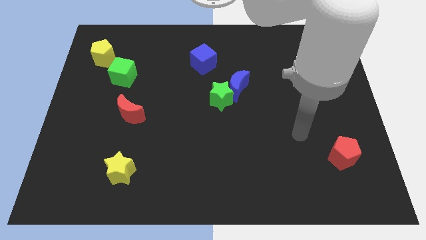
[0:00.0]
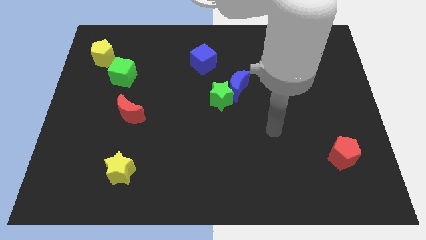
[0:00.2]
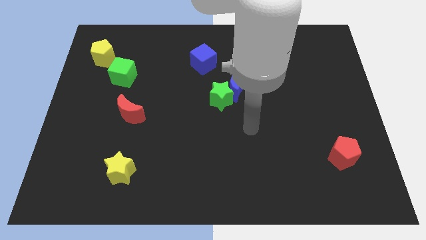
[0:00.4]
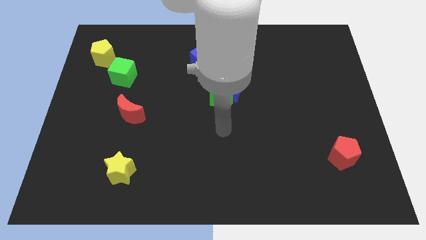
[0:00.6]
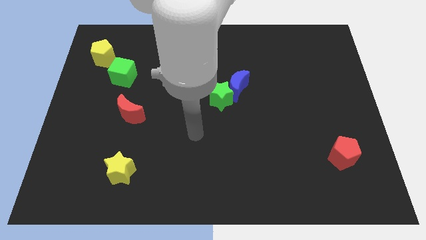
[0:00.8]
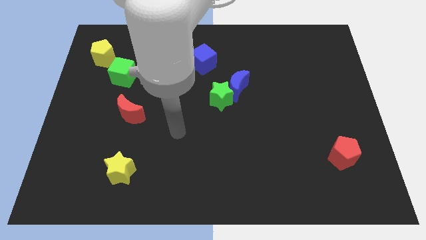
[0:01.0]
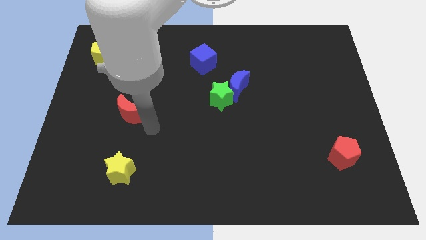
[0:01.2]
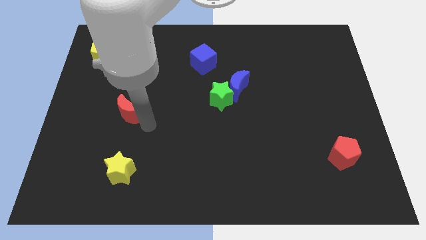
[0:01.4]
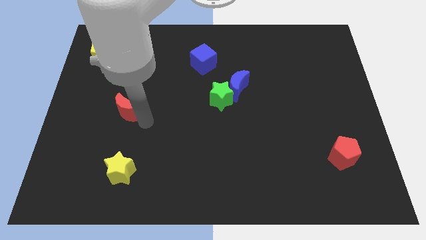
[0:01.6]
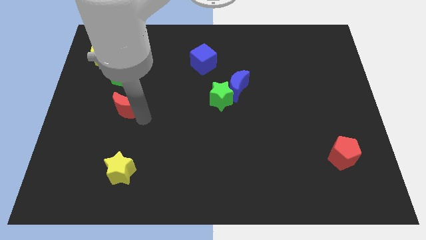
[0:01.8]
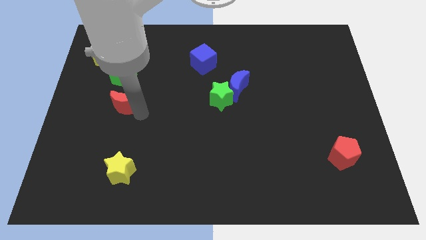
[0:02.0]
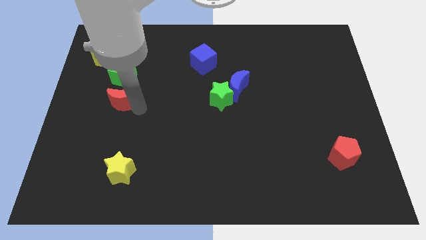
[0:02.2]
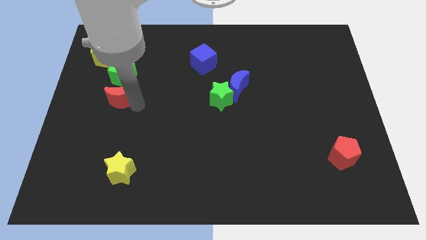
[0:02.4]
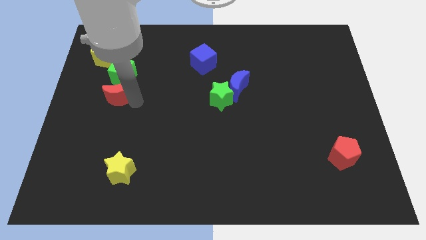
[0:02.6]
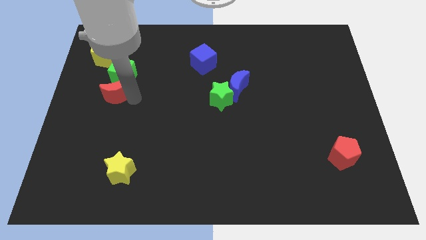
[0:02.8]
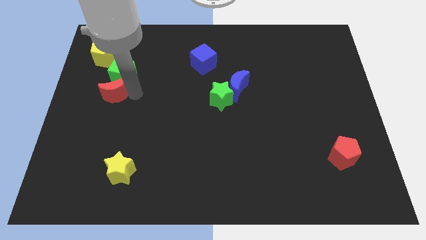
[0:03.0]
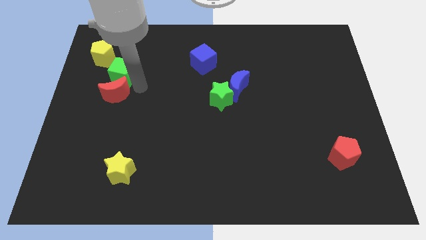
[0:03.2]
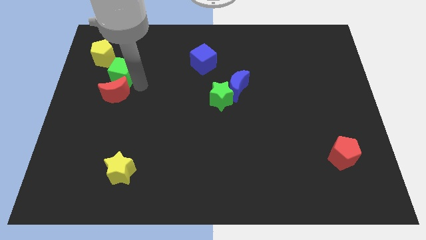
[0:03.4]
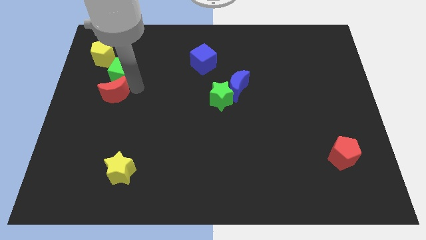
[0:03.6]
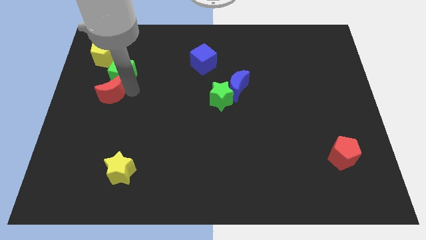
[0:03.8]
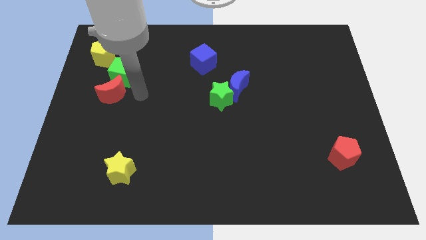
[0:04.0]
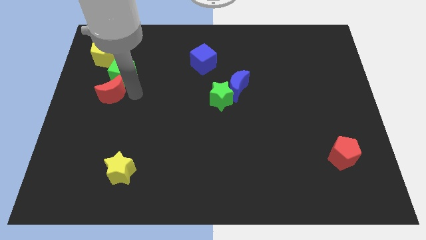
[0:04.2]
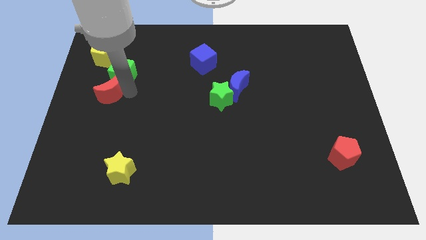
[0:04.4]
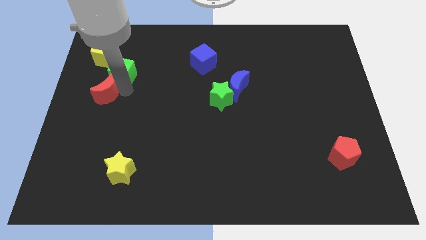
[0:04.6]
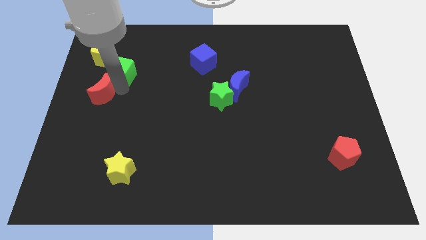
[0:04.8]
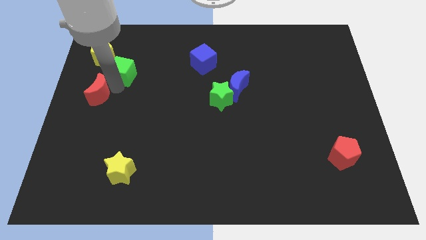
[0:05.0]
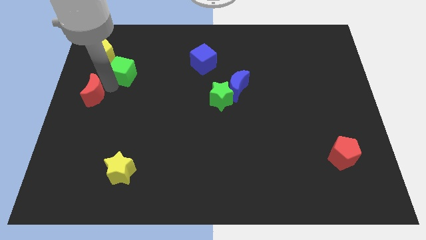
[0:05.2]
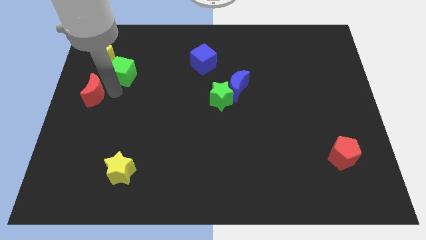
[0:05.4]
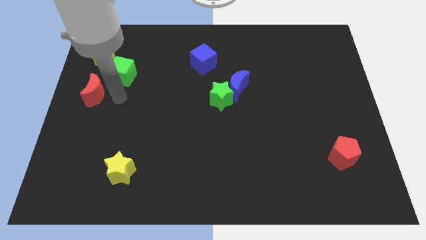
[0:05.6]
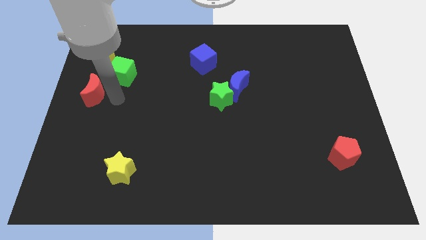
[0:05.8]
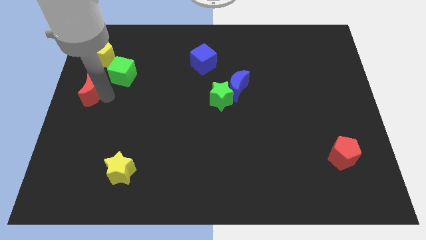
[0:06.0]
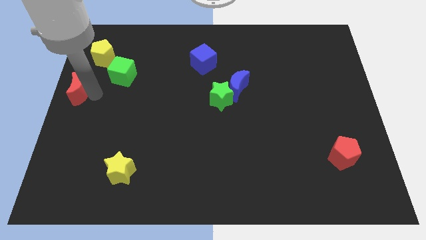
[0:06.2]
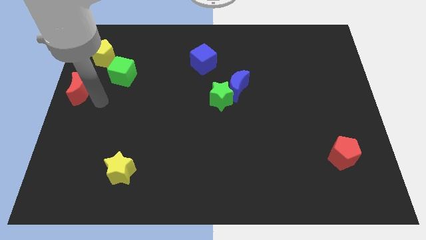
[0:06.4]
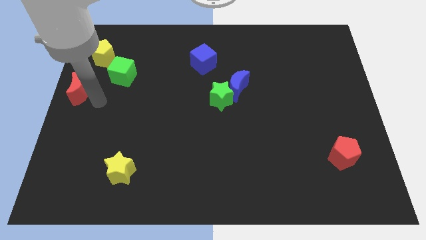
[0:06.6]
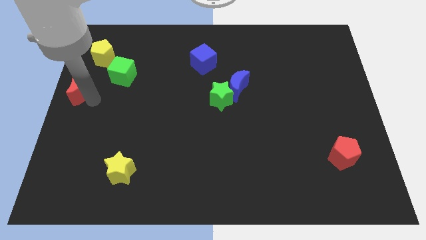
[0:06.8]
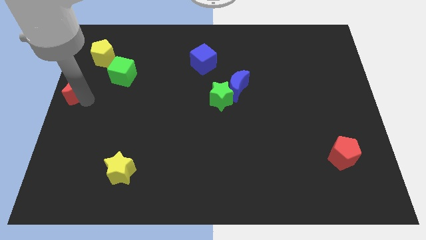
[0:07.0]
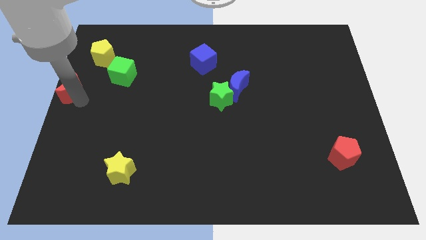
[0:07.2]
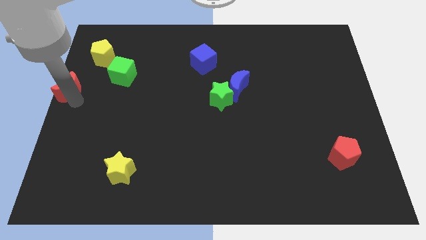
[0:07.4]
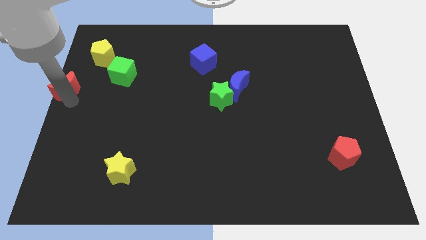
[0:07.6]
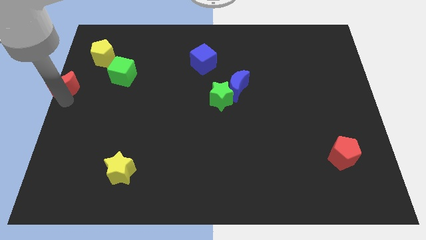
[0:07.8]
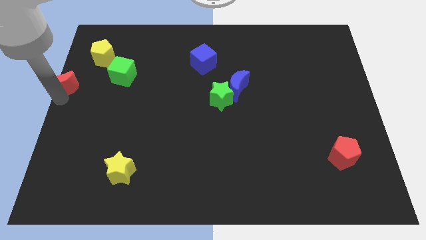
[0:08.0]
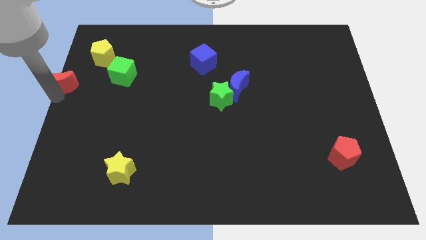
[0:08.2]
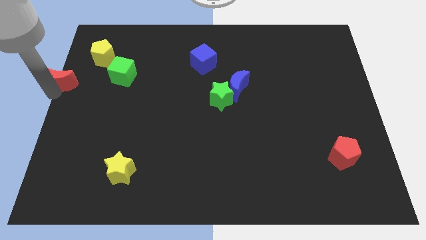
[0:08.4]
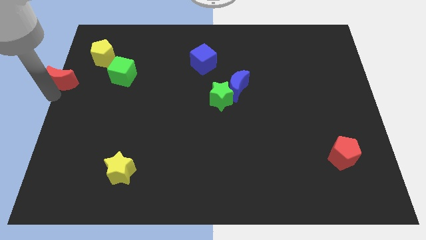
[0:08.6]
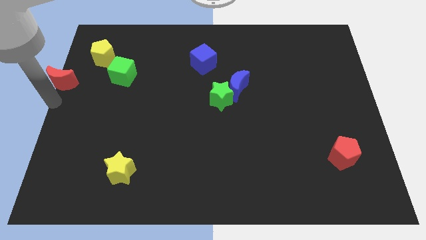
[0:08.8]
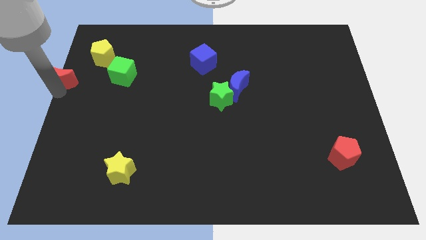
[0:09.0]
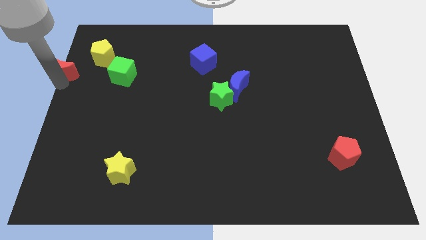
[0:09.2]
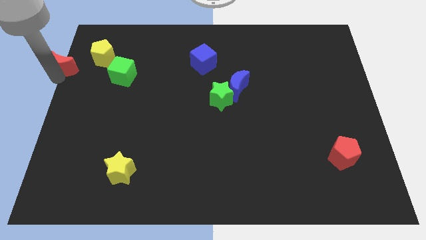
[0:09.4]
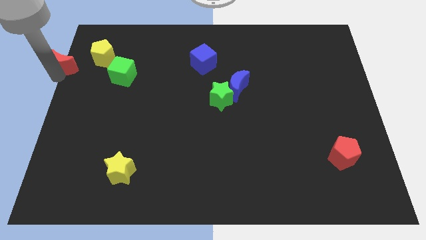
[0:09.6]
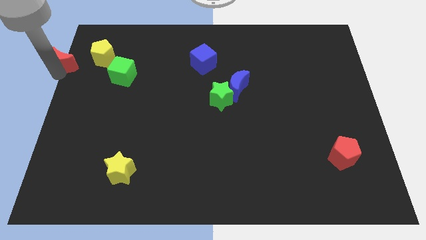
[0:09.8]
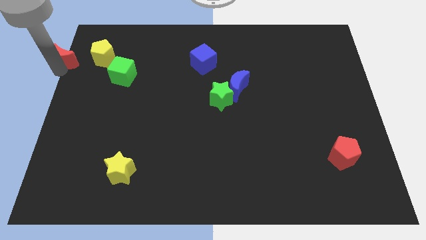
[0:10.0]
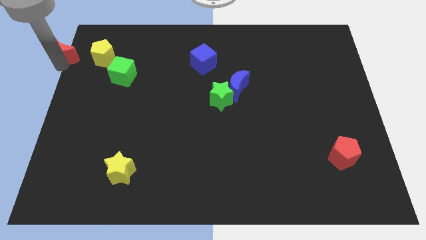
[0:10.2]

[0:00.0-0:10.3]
slide the red moon to the top left of the board

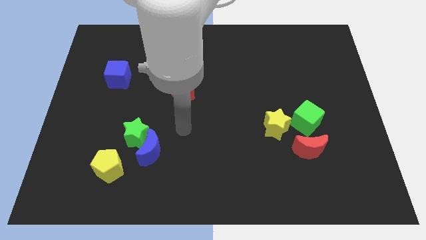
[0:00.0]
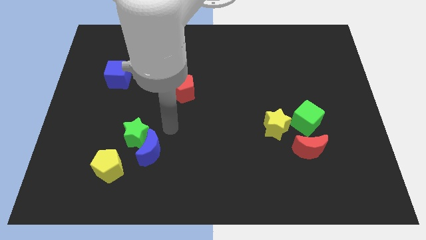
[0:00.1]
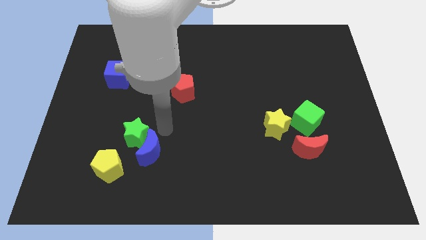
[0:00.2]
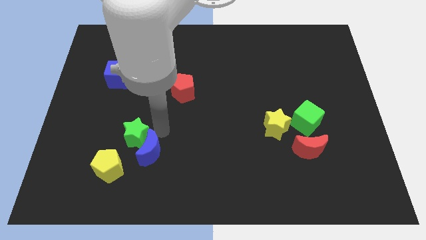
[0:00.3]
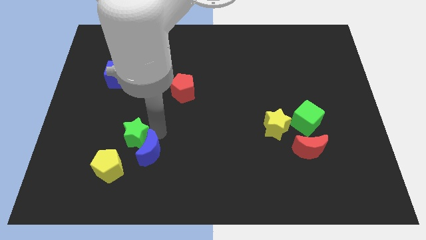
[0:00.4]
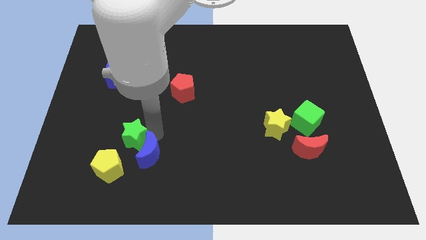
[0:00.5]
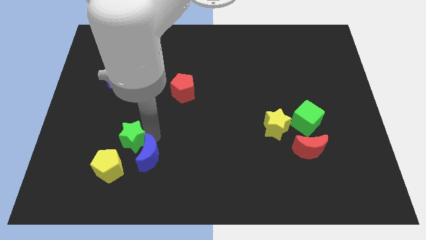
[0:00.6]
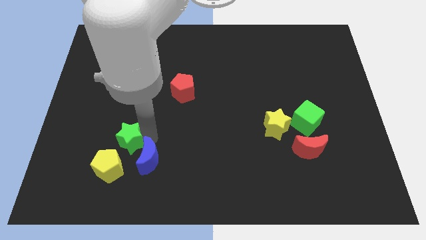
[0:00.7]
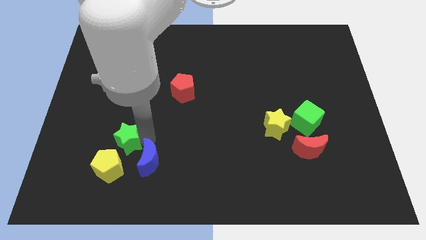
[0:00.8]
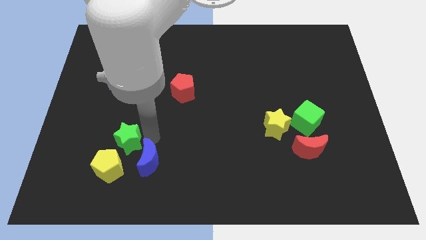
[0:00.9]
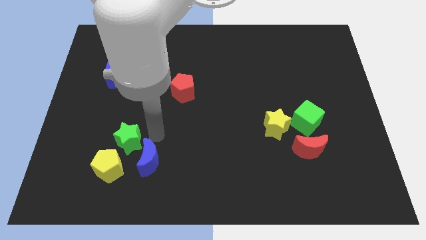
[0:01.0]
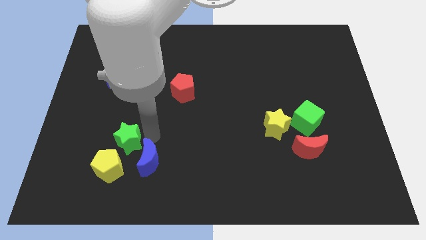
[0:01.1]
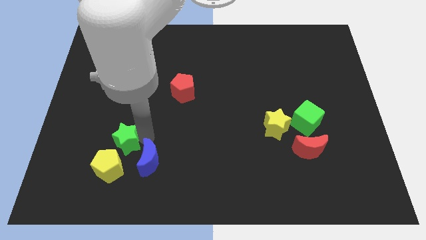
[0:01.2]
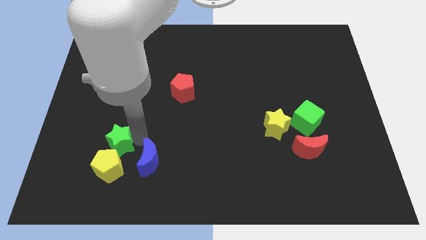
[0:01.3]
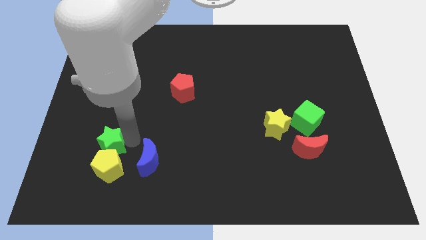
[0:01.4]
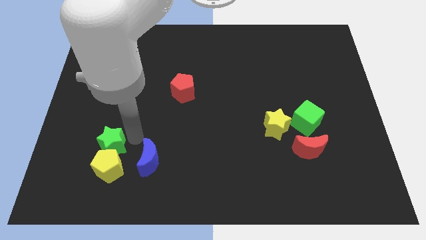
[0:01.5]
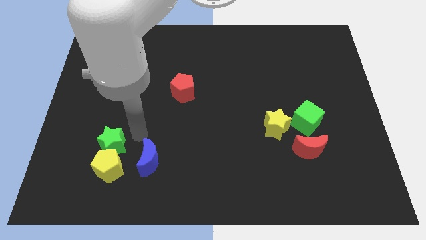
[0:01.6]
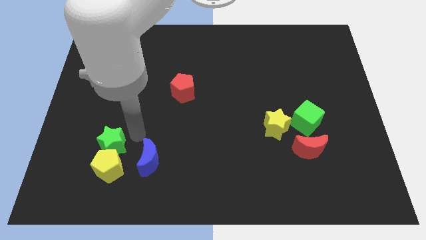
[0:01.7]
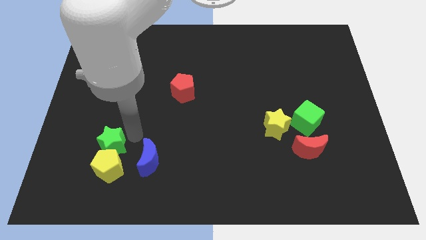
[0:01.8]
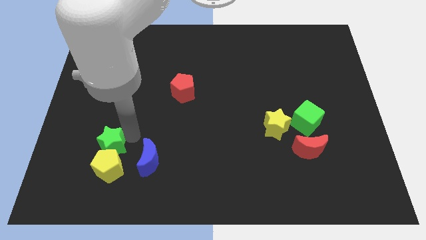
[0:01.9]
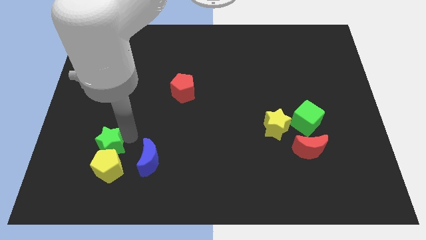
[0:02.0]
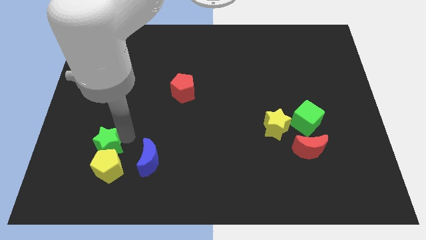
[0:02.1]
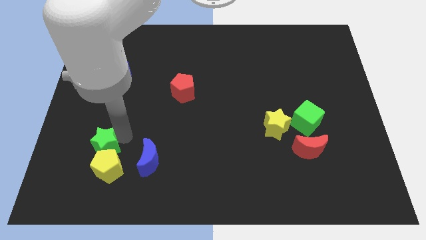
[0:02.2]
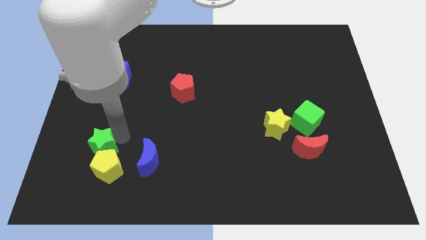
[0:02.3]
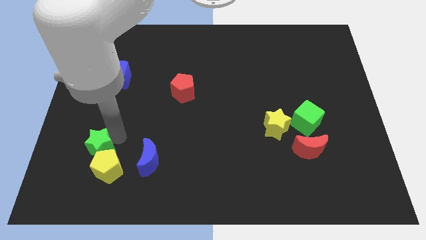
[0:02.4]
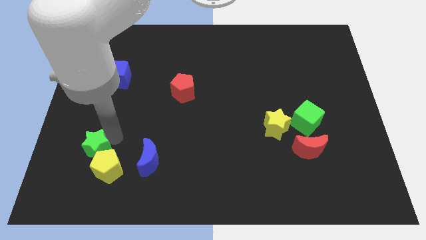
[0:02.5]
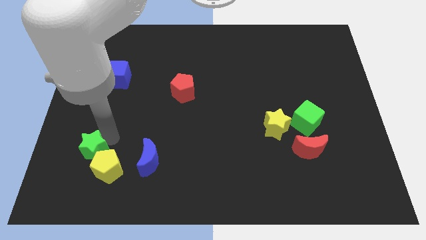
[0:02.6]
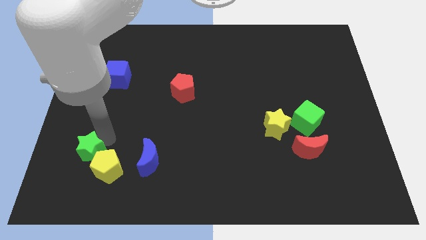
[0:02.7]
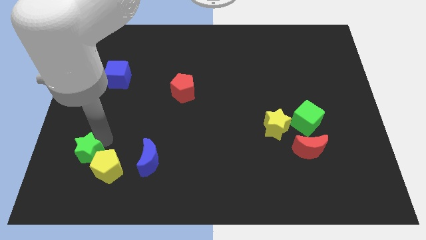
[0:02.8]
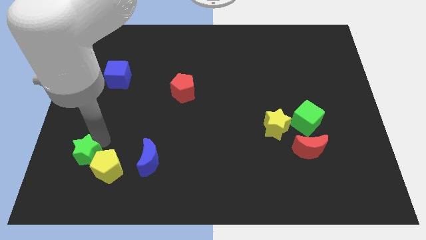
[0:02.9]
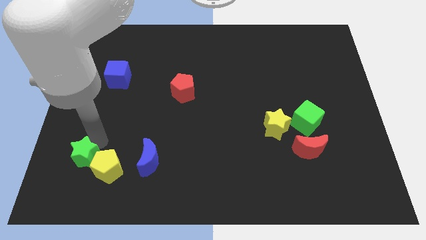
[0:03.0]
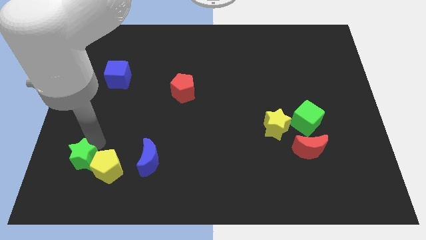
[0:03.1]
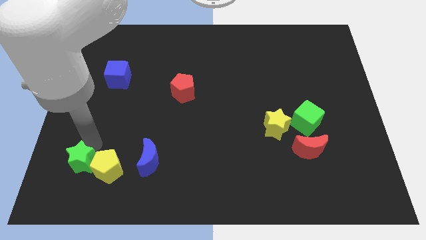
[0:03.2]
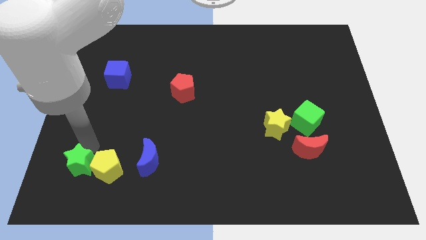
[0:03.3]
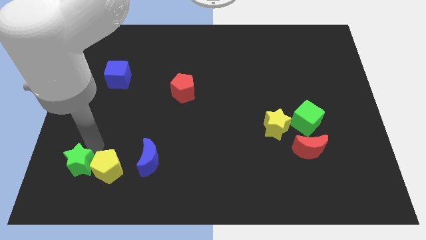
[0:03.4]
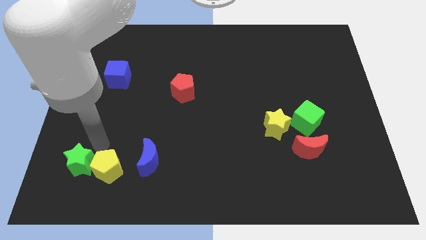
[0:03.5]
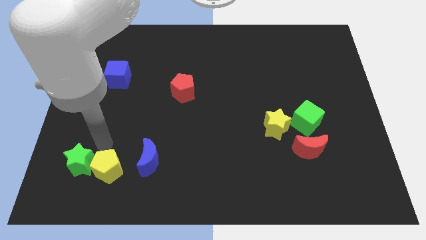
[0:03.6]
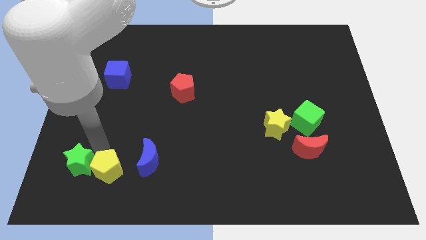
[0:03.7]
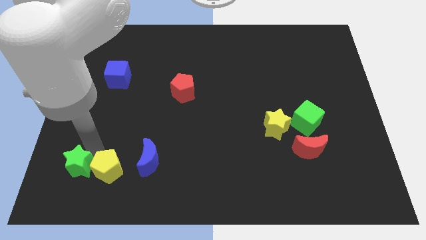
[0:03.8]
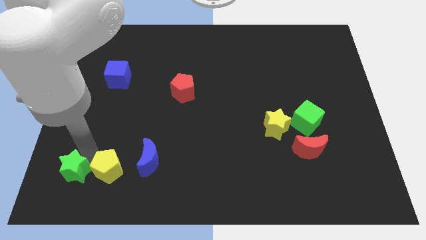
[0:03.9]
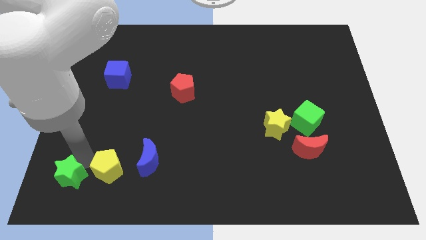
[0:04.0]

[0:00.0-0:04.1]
push the green star to the bottom left
